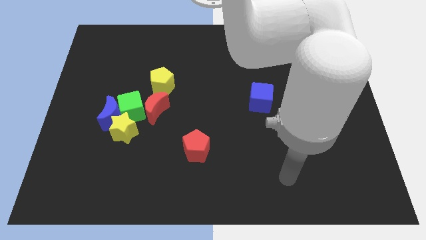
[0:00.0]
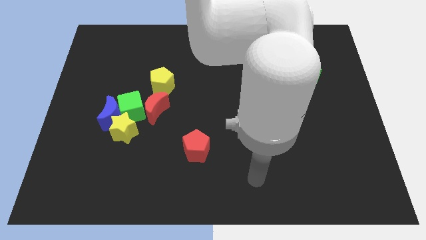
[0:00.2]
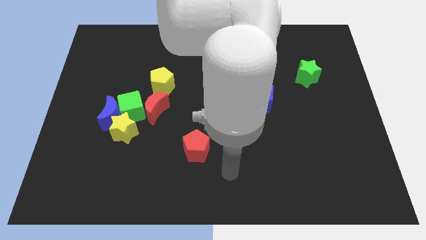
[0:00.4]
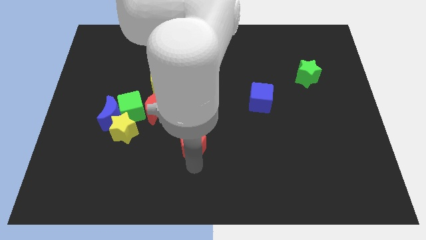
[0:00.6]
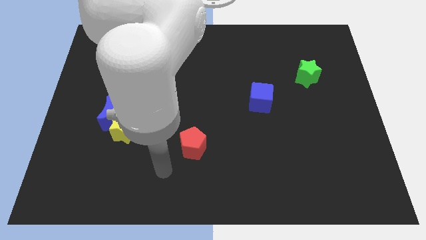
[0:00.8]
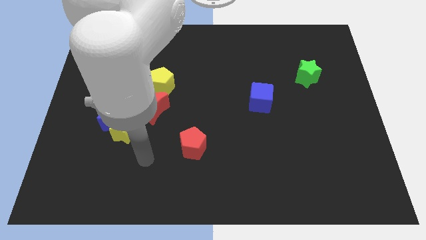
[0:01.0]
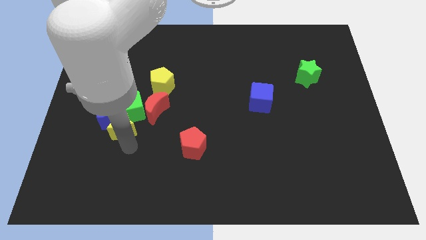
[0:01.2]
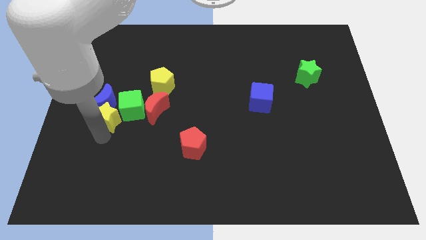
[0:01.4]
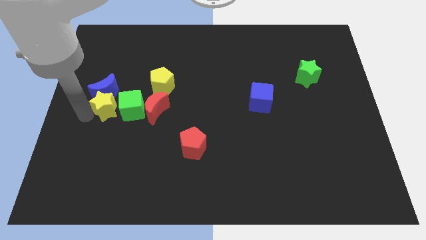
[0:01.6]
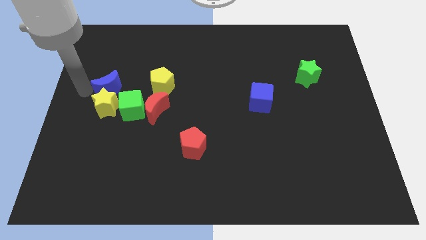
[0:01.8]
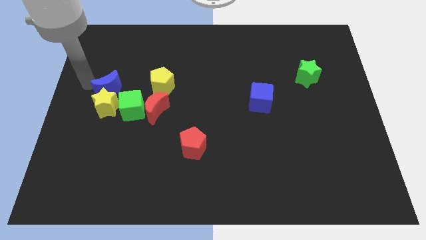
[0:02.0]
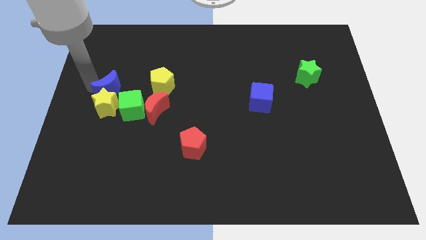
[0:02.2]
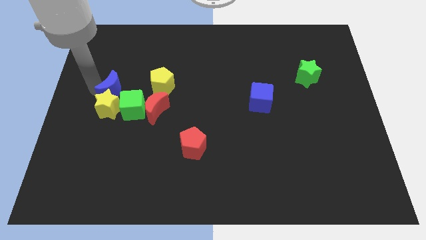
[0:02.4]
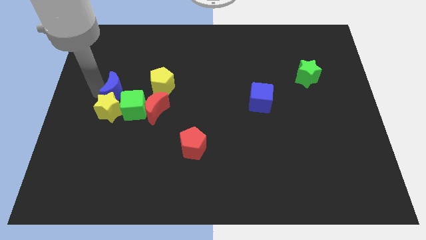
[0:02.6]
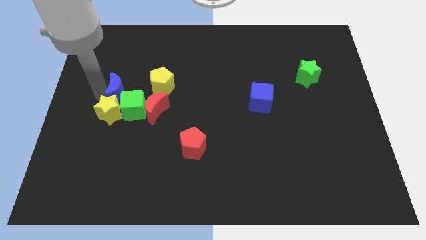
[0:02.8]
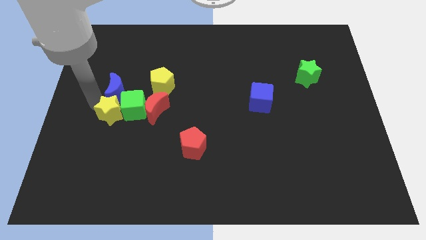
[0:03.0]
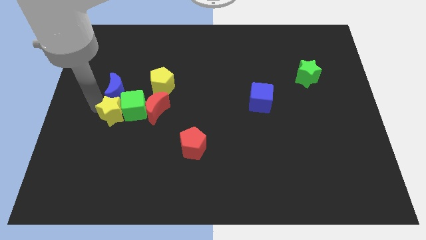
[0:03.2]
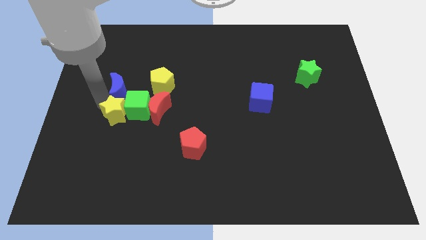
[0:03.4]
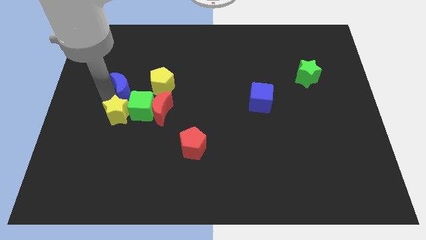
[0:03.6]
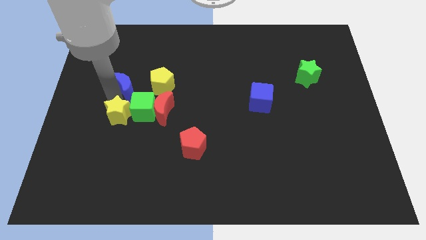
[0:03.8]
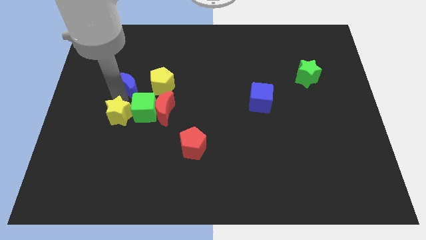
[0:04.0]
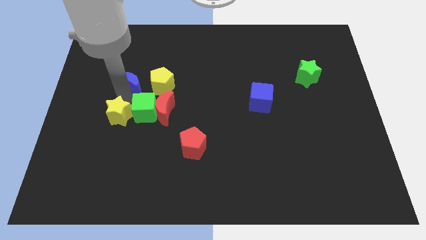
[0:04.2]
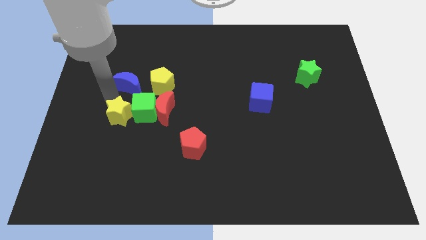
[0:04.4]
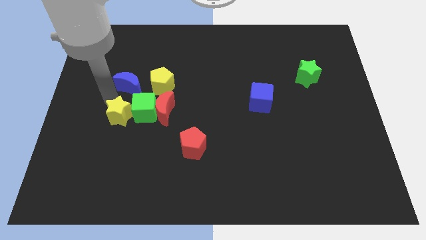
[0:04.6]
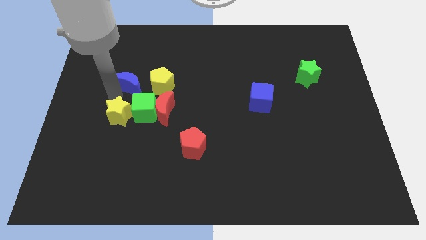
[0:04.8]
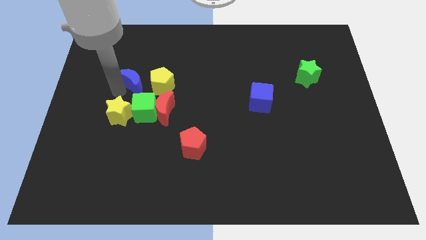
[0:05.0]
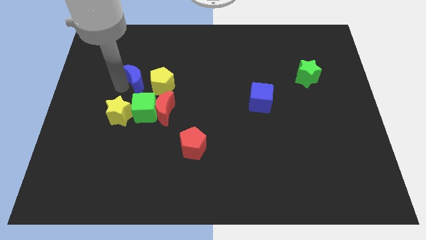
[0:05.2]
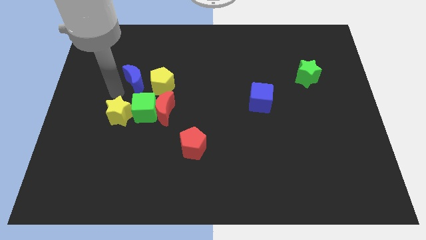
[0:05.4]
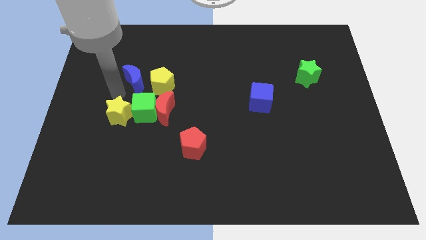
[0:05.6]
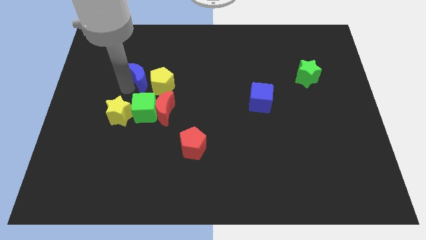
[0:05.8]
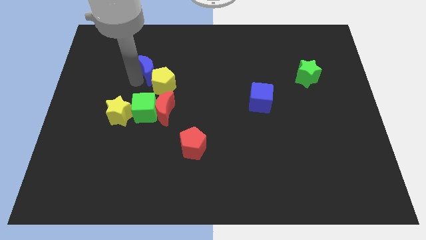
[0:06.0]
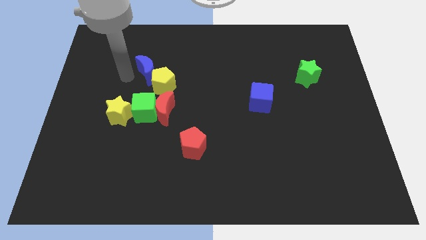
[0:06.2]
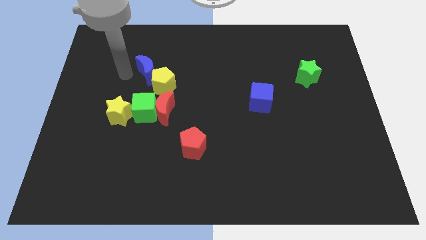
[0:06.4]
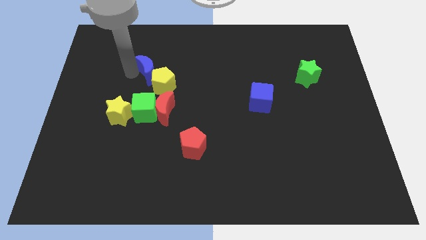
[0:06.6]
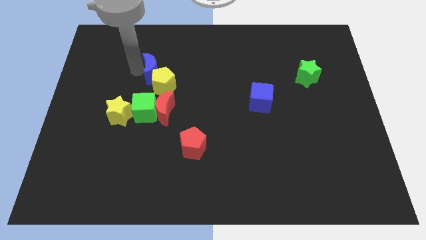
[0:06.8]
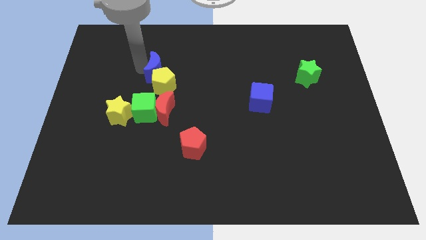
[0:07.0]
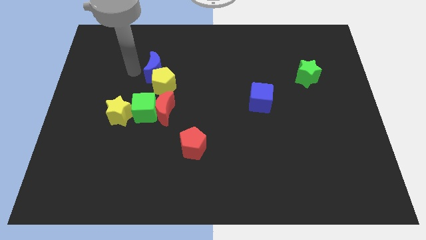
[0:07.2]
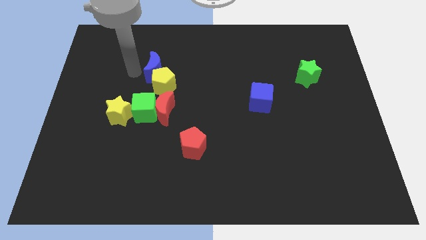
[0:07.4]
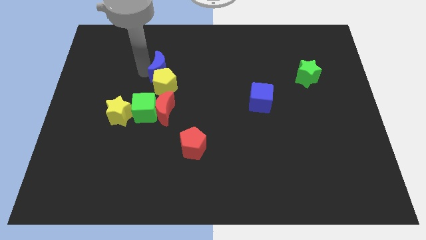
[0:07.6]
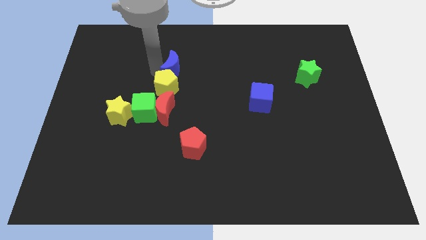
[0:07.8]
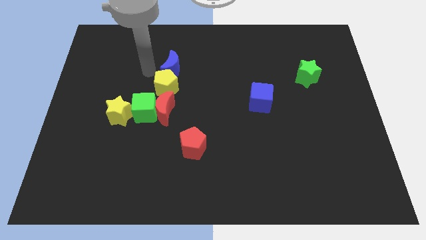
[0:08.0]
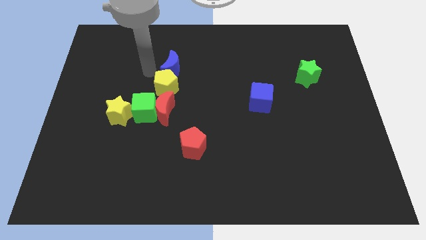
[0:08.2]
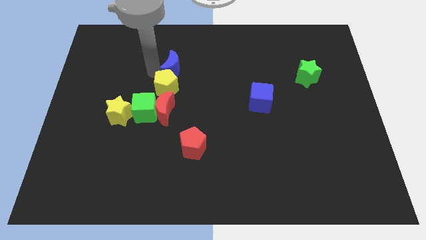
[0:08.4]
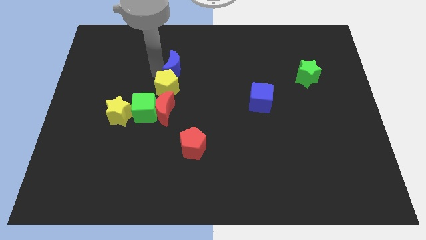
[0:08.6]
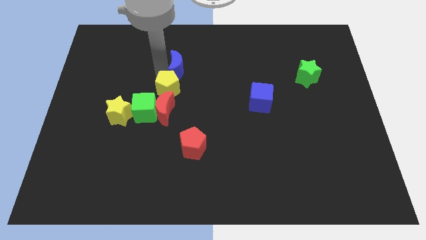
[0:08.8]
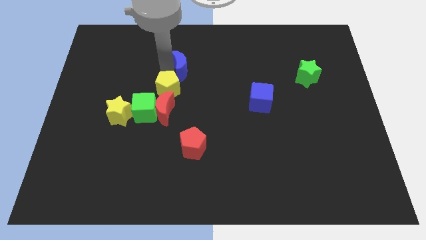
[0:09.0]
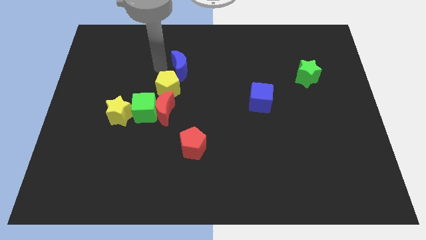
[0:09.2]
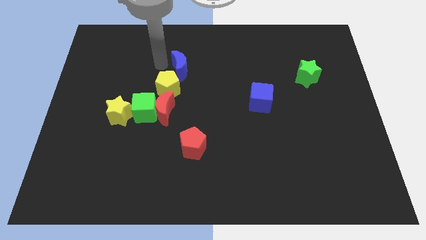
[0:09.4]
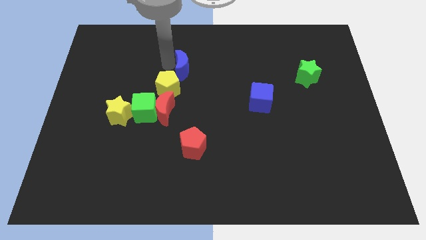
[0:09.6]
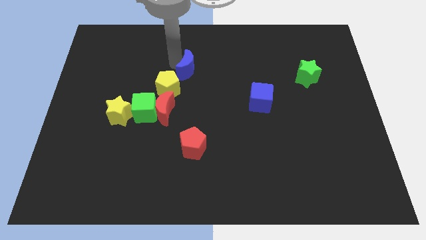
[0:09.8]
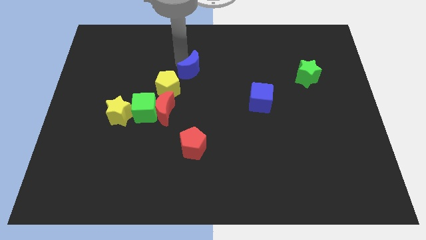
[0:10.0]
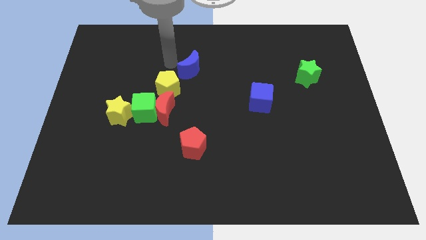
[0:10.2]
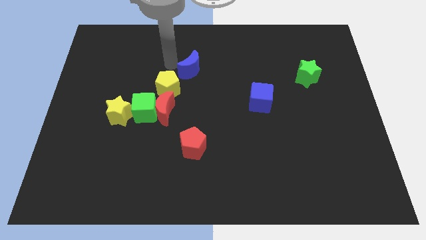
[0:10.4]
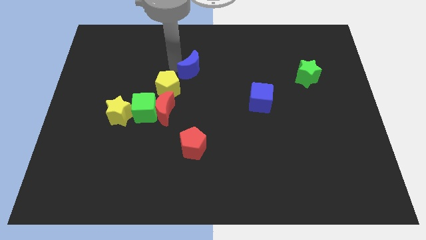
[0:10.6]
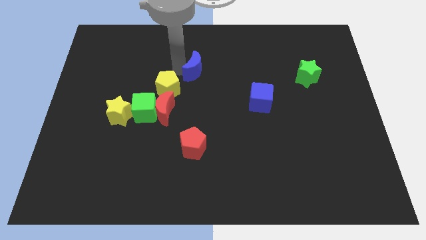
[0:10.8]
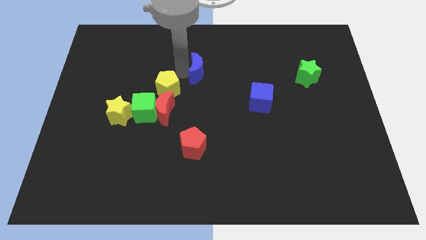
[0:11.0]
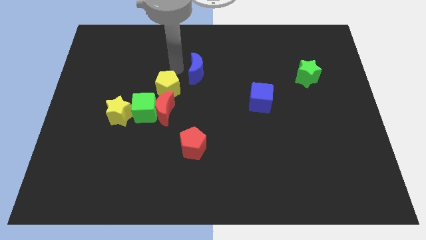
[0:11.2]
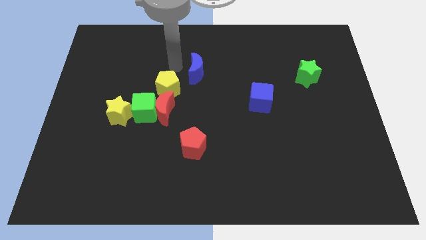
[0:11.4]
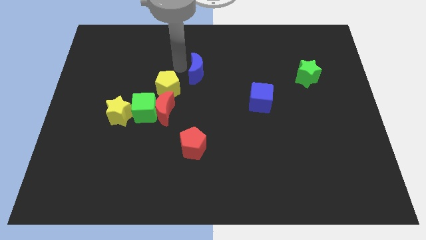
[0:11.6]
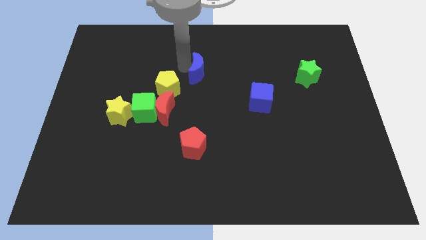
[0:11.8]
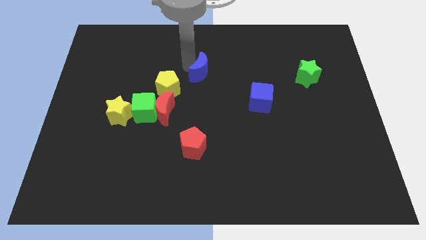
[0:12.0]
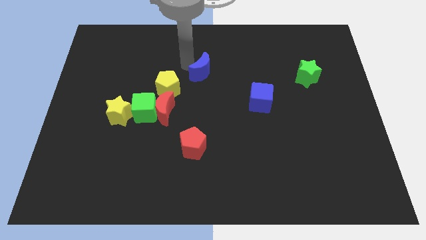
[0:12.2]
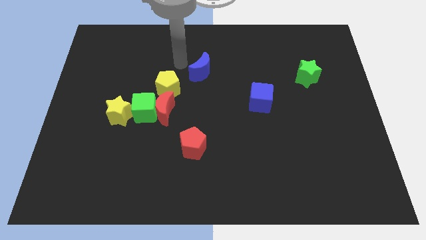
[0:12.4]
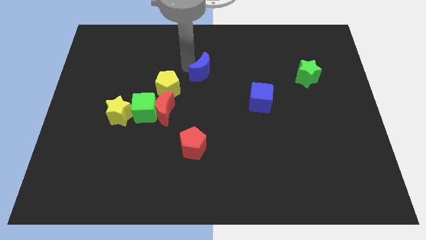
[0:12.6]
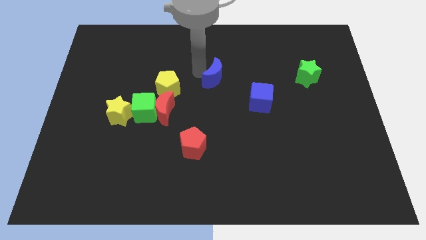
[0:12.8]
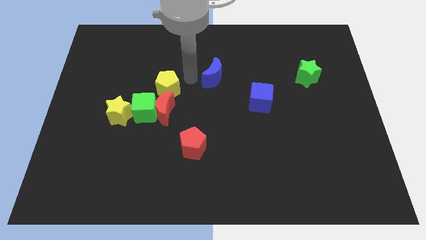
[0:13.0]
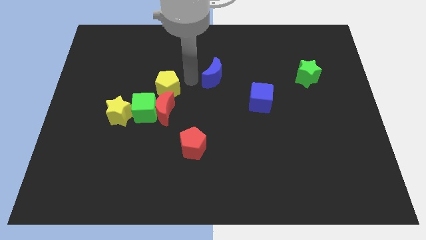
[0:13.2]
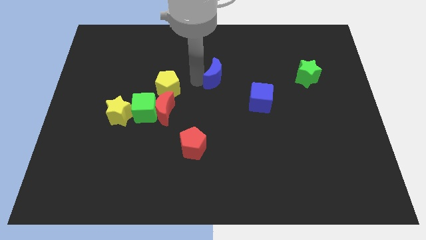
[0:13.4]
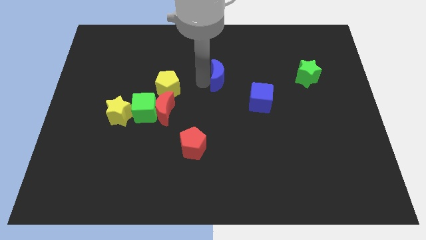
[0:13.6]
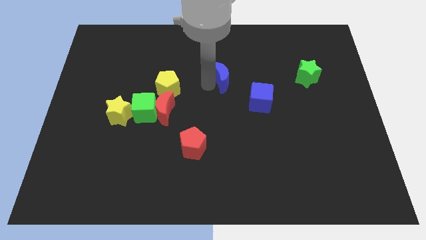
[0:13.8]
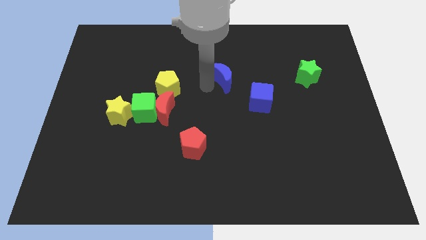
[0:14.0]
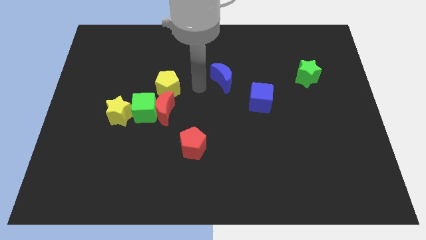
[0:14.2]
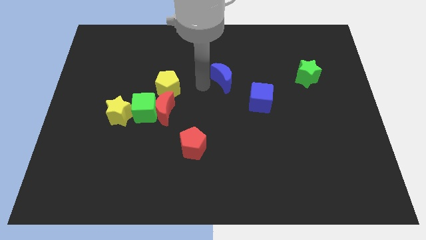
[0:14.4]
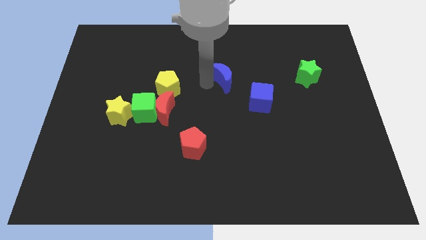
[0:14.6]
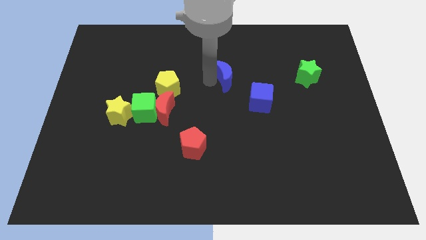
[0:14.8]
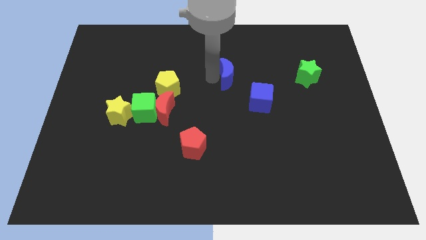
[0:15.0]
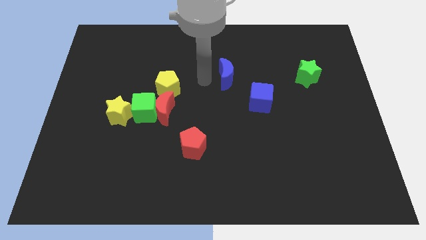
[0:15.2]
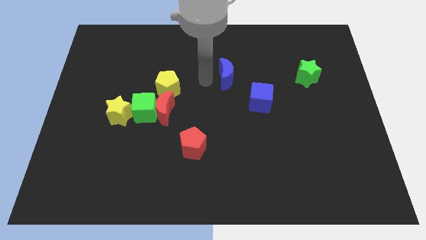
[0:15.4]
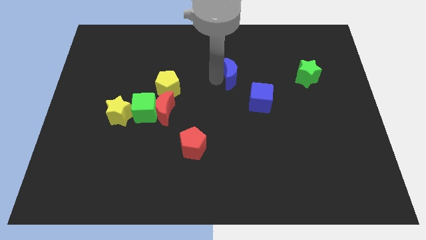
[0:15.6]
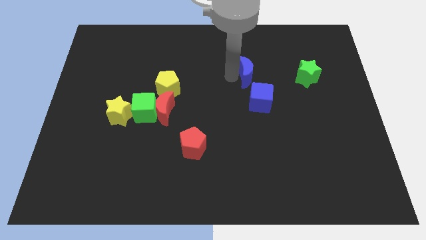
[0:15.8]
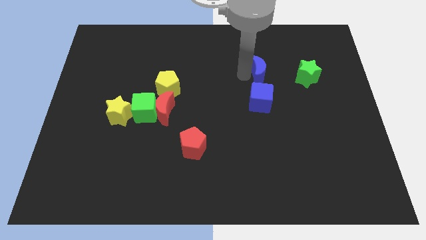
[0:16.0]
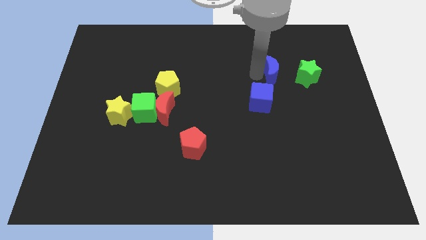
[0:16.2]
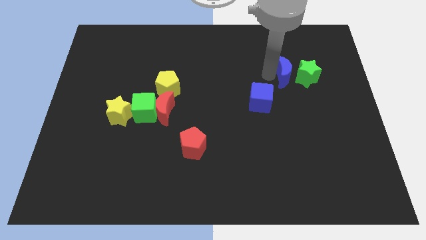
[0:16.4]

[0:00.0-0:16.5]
slide the blue moon close to the green star
